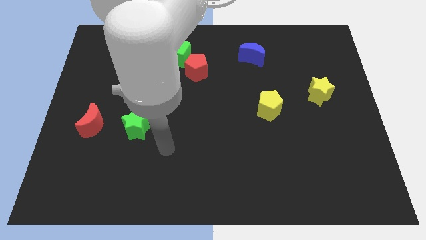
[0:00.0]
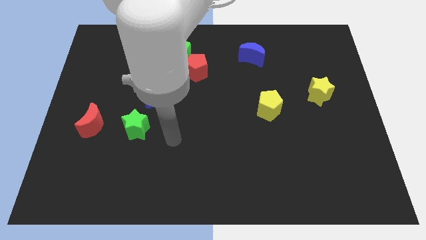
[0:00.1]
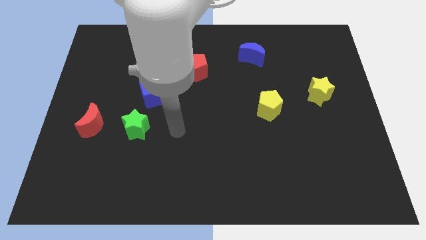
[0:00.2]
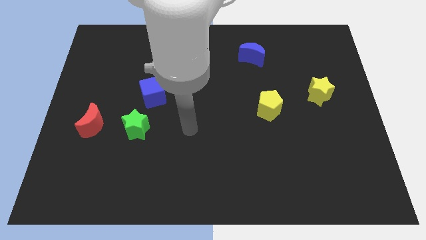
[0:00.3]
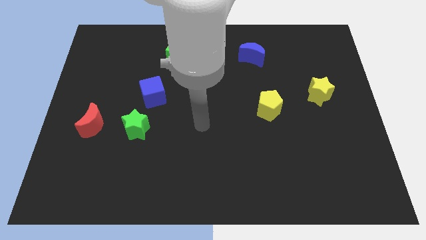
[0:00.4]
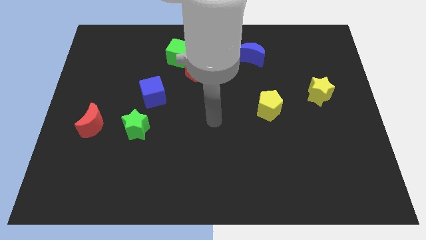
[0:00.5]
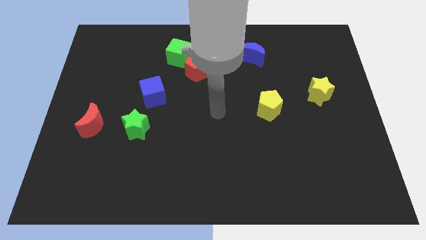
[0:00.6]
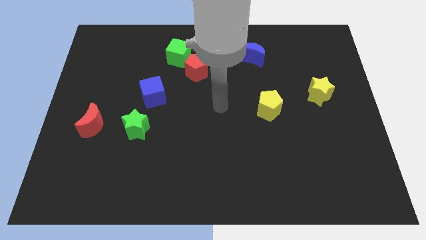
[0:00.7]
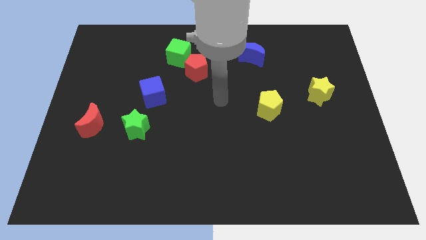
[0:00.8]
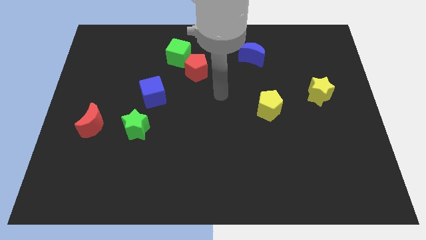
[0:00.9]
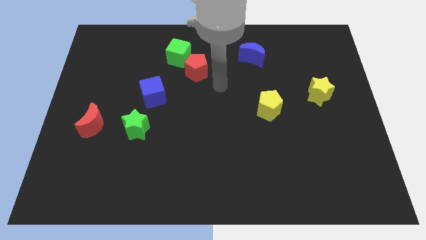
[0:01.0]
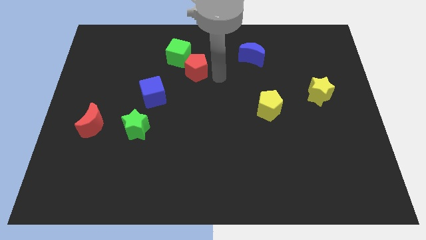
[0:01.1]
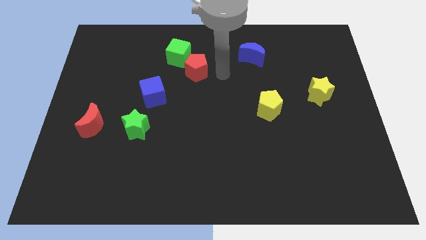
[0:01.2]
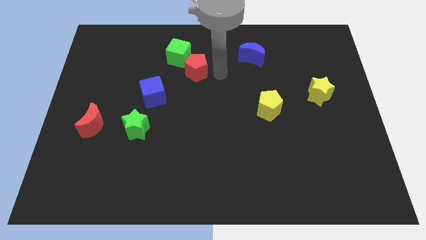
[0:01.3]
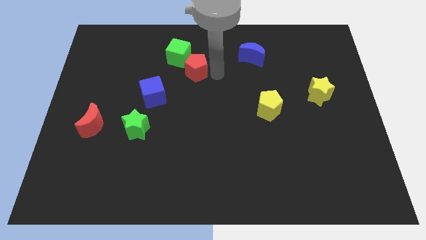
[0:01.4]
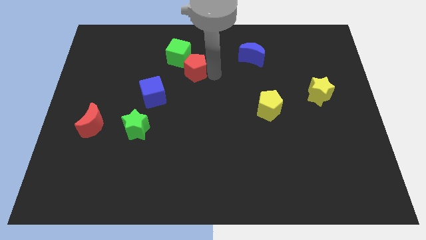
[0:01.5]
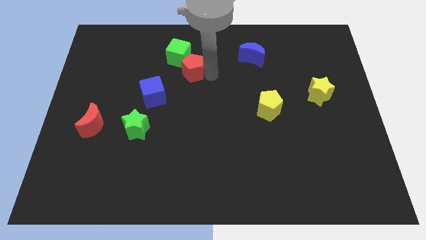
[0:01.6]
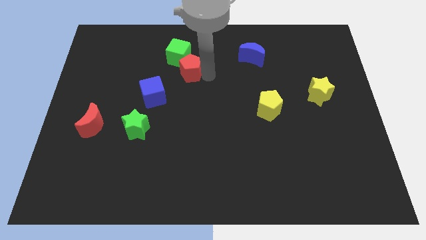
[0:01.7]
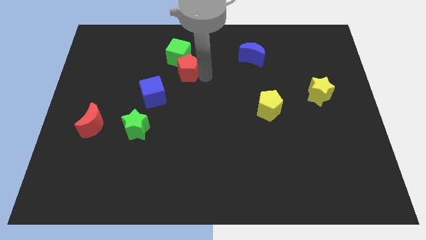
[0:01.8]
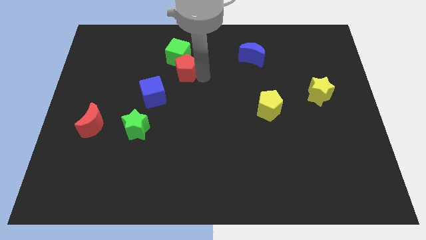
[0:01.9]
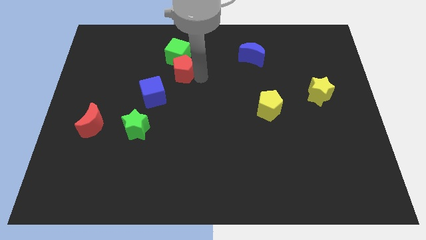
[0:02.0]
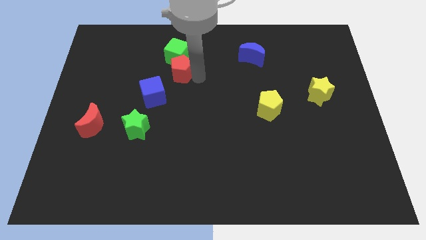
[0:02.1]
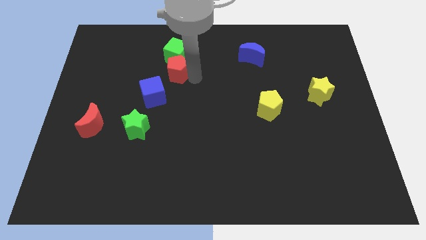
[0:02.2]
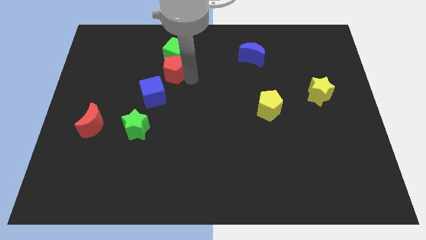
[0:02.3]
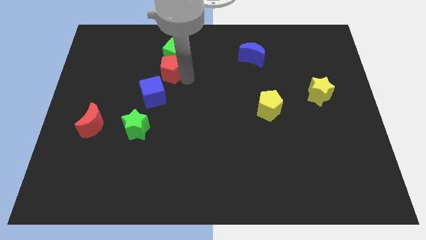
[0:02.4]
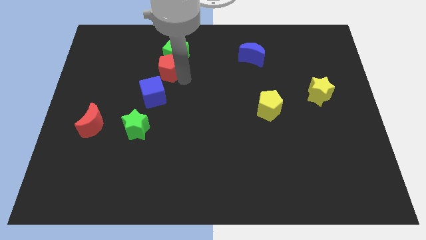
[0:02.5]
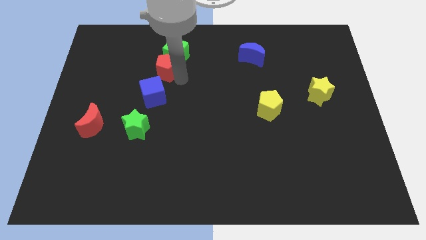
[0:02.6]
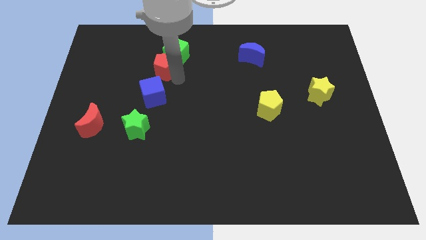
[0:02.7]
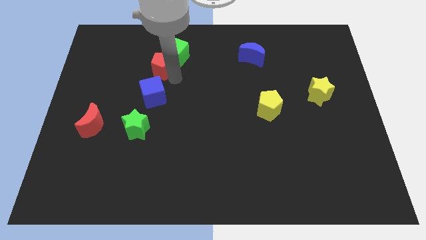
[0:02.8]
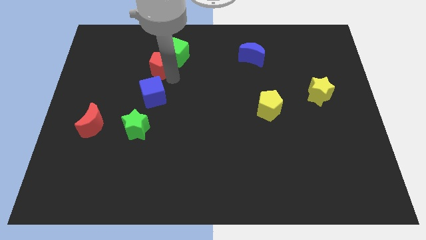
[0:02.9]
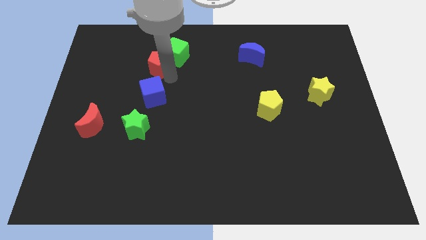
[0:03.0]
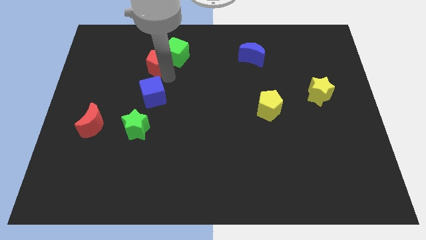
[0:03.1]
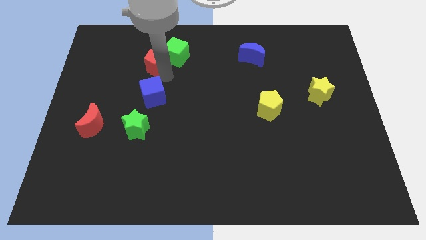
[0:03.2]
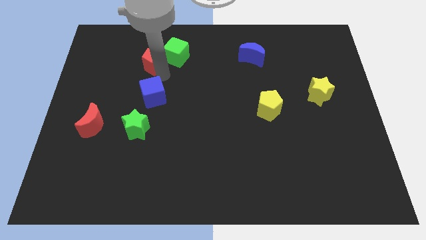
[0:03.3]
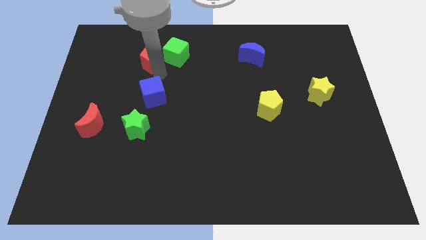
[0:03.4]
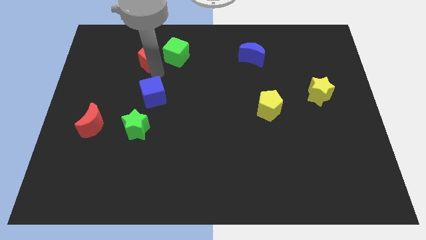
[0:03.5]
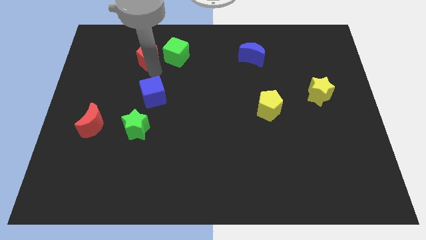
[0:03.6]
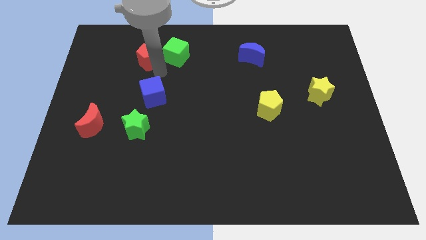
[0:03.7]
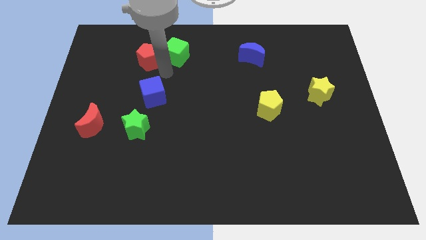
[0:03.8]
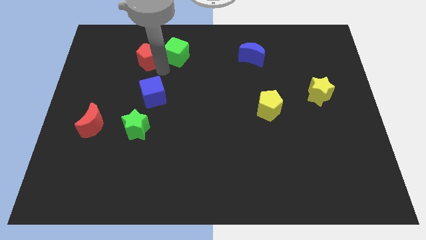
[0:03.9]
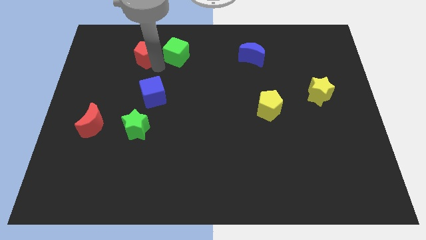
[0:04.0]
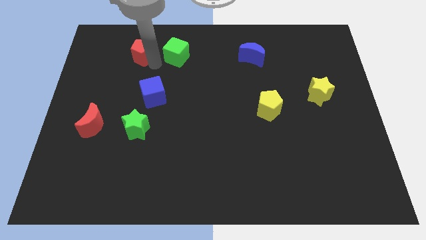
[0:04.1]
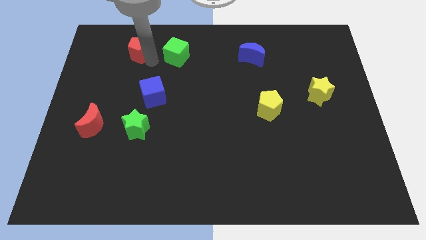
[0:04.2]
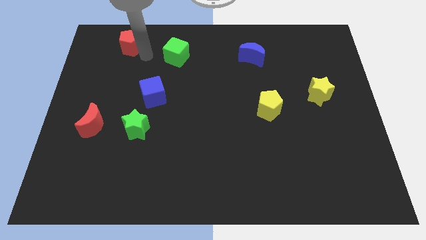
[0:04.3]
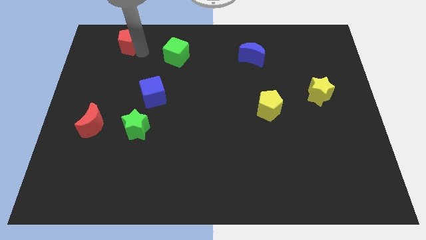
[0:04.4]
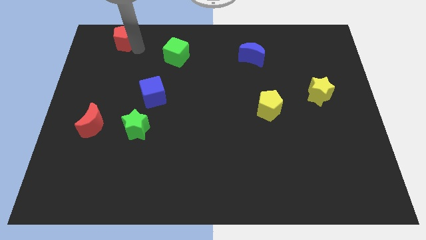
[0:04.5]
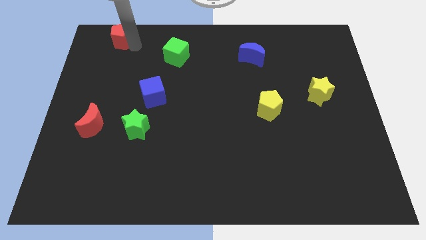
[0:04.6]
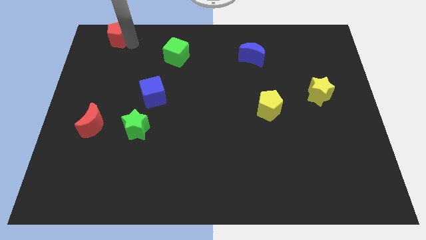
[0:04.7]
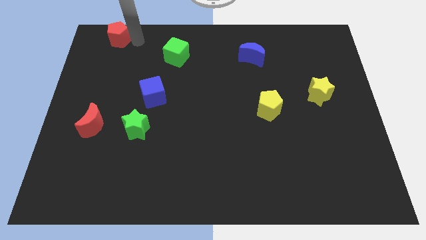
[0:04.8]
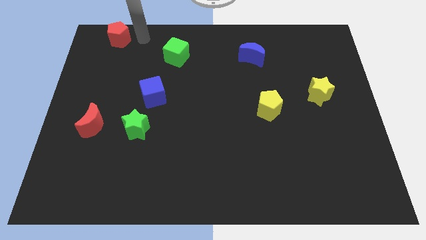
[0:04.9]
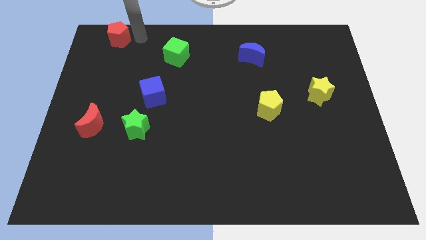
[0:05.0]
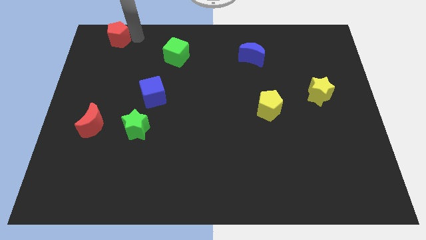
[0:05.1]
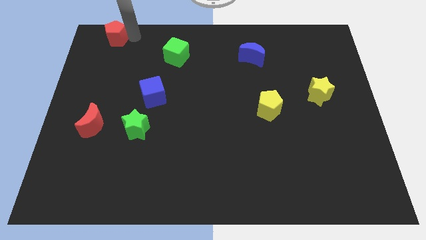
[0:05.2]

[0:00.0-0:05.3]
push the red pentagon to the top left

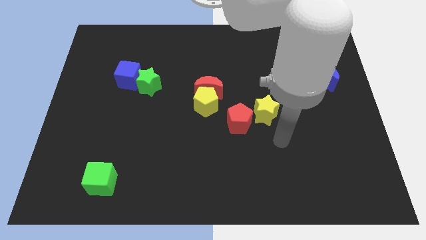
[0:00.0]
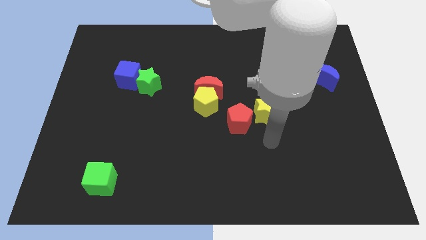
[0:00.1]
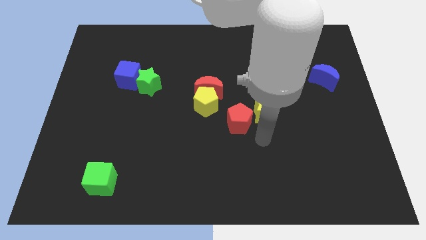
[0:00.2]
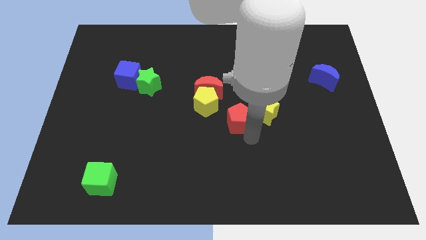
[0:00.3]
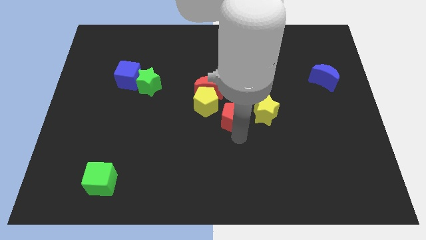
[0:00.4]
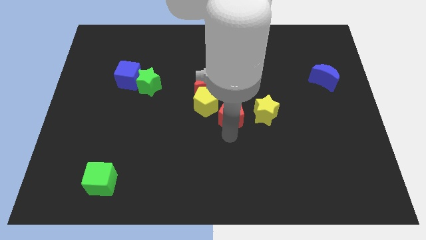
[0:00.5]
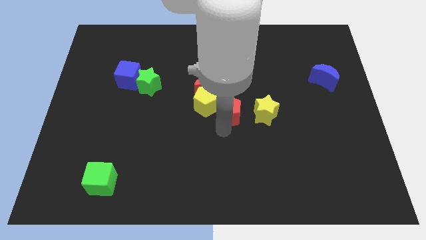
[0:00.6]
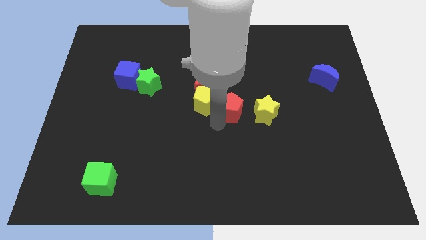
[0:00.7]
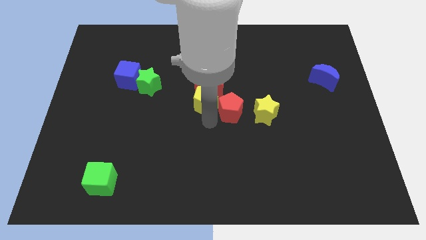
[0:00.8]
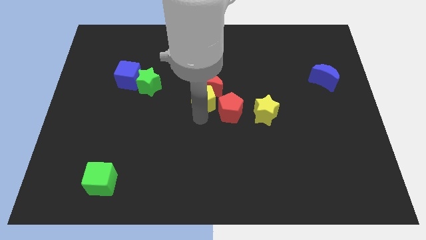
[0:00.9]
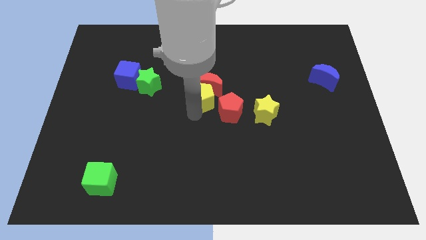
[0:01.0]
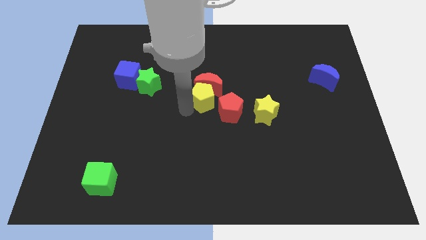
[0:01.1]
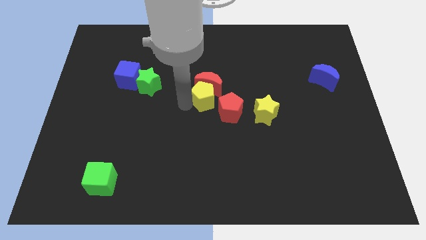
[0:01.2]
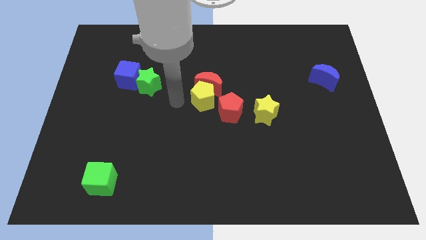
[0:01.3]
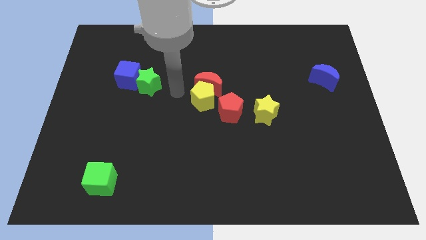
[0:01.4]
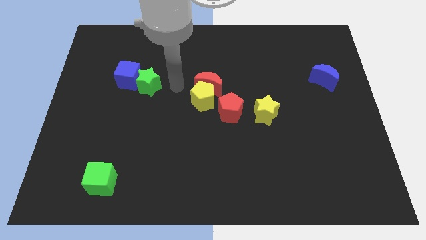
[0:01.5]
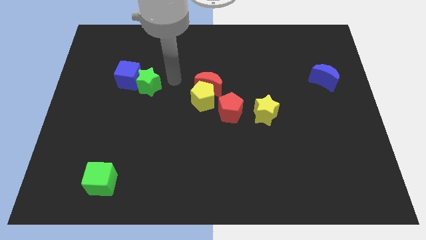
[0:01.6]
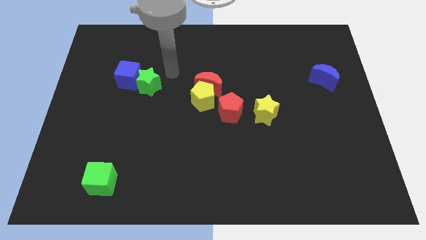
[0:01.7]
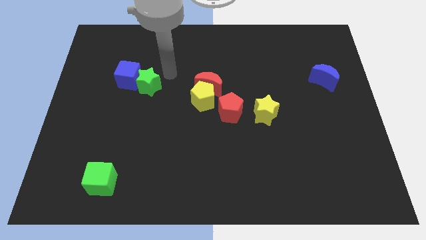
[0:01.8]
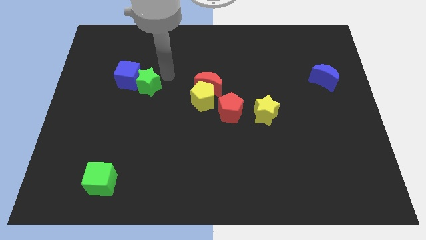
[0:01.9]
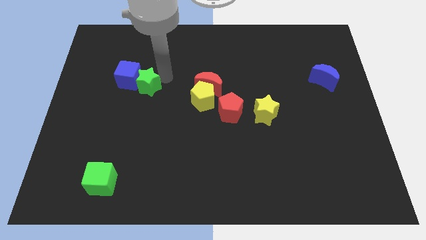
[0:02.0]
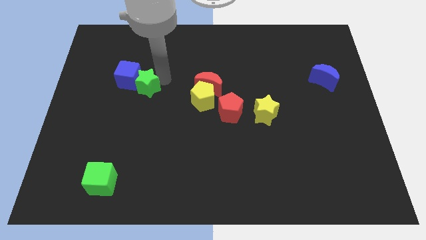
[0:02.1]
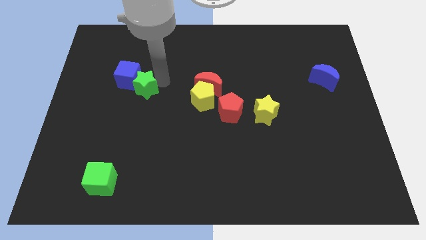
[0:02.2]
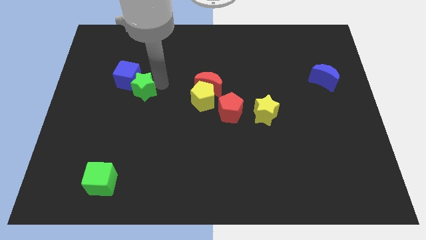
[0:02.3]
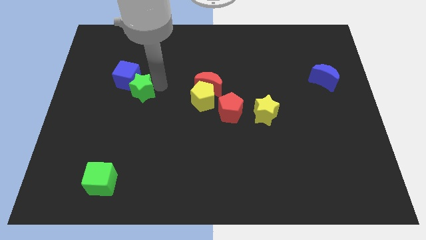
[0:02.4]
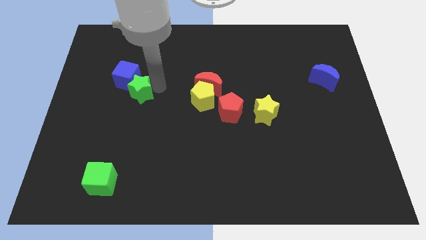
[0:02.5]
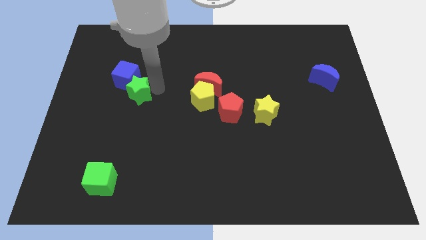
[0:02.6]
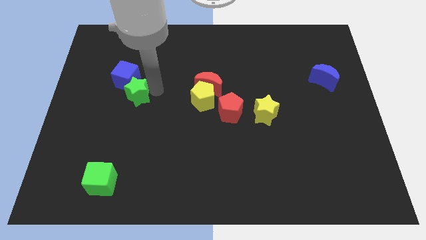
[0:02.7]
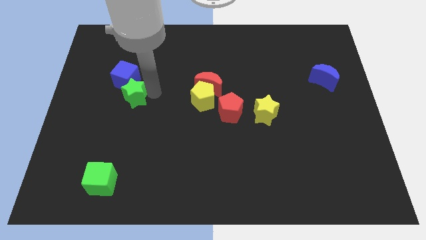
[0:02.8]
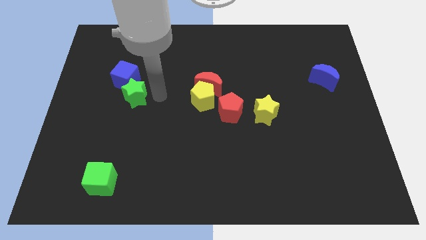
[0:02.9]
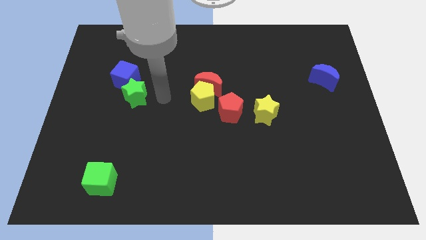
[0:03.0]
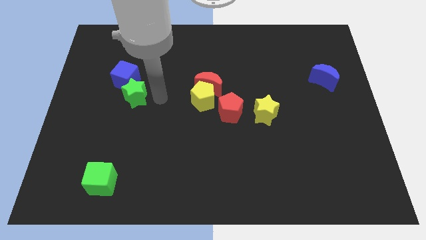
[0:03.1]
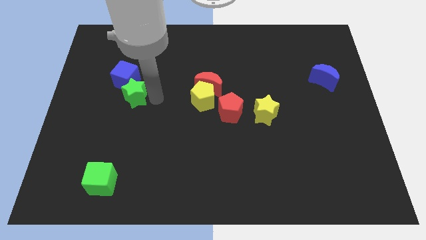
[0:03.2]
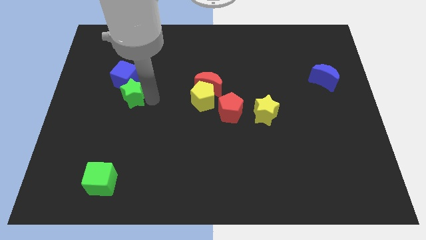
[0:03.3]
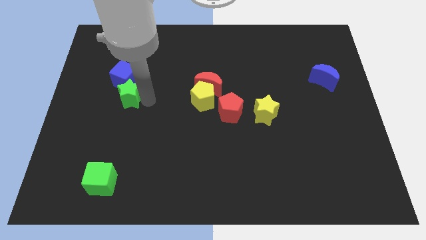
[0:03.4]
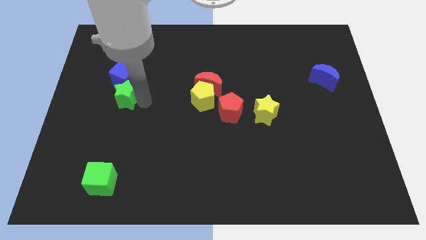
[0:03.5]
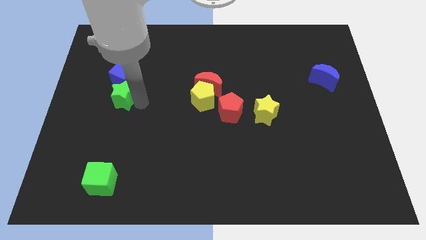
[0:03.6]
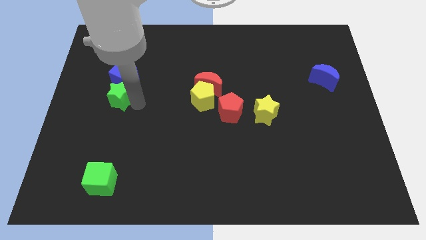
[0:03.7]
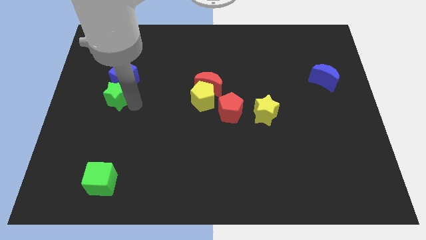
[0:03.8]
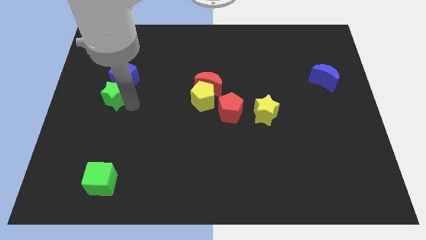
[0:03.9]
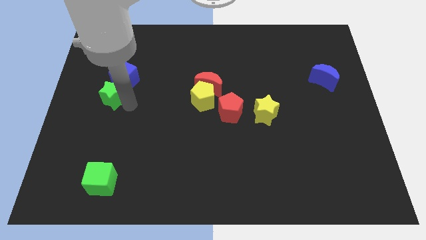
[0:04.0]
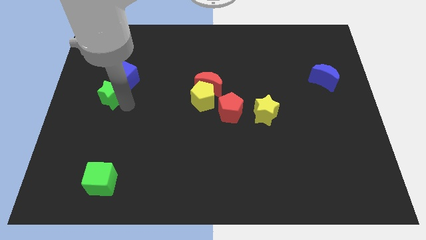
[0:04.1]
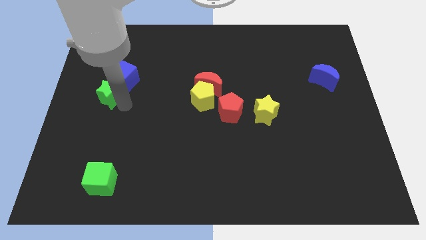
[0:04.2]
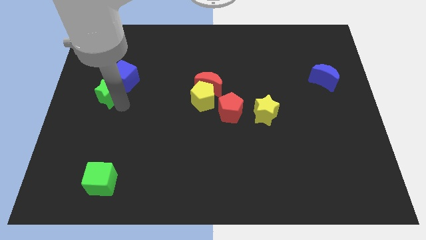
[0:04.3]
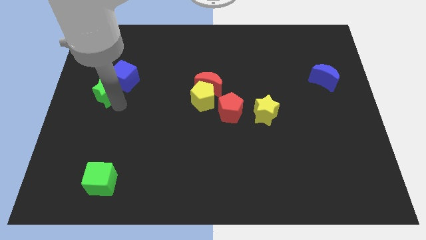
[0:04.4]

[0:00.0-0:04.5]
slide the green star to the left side of the board
